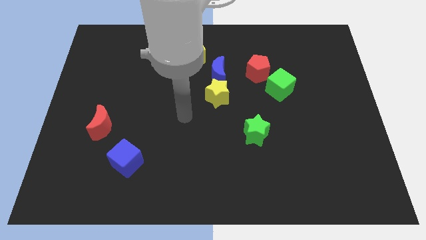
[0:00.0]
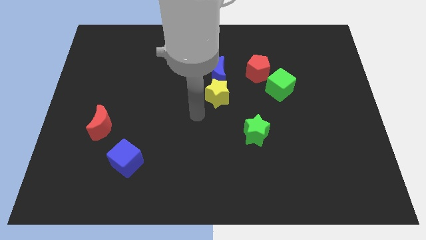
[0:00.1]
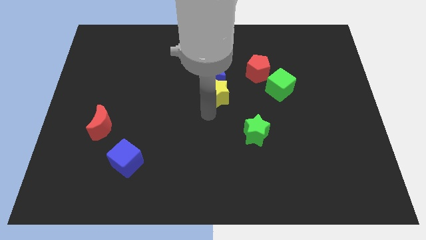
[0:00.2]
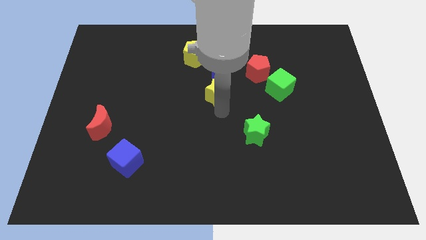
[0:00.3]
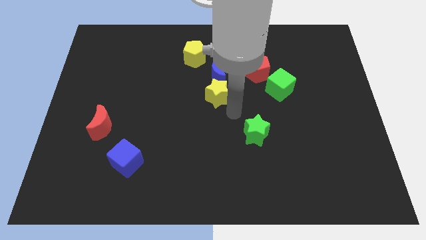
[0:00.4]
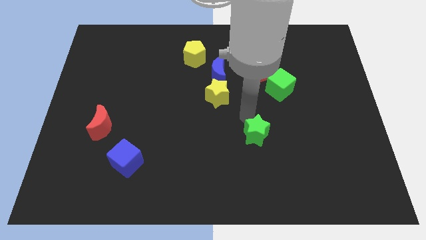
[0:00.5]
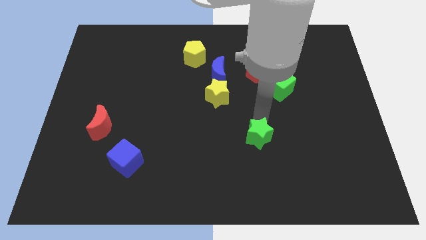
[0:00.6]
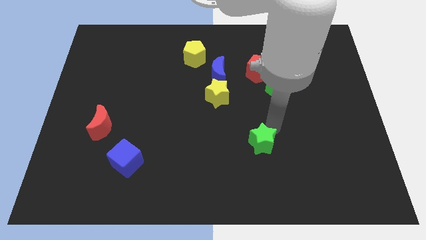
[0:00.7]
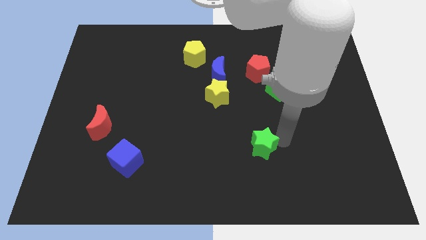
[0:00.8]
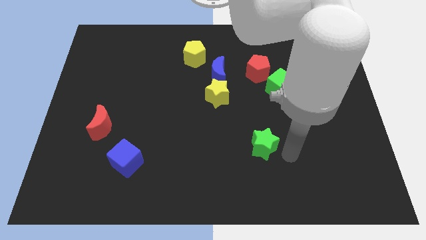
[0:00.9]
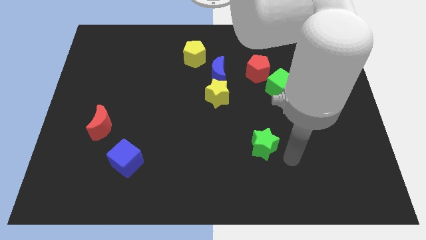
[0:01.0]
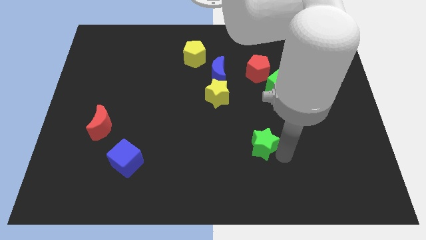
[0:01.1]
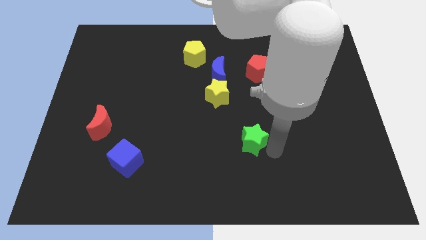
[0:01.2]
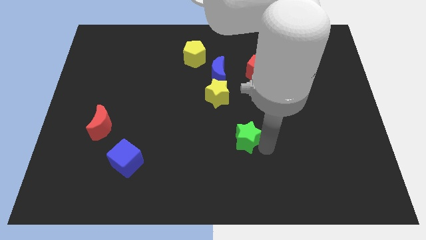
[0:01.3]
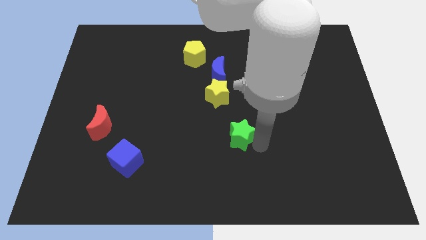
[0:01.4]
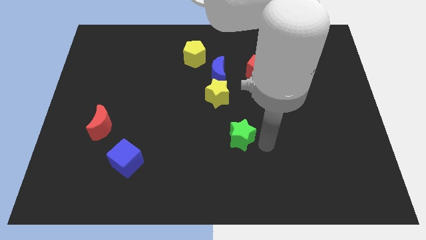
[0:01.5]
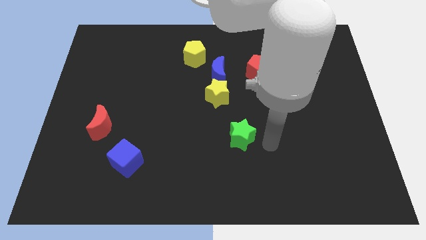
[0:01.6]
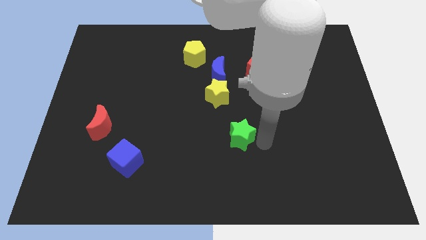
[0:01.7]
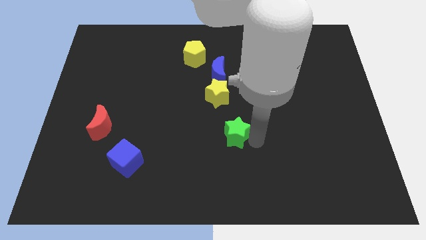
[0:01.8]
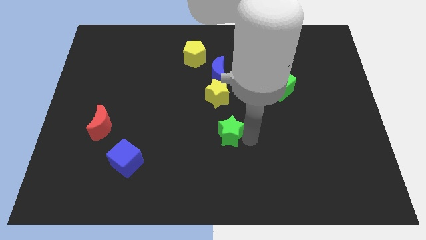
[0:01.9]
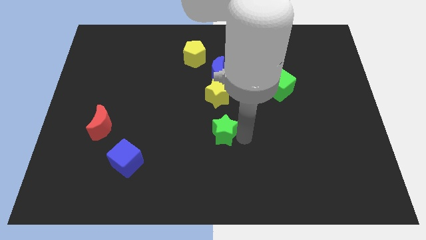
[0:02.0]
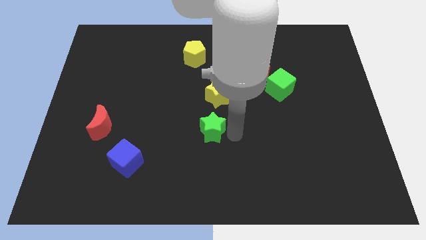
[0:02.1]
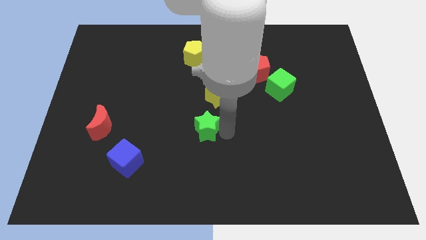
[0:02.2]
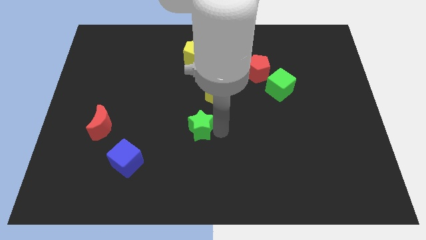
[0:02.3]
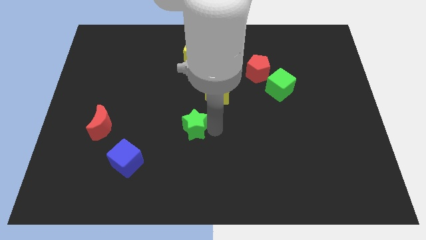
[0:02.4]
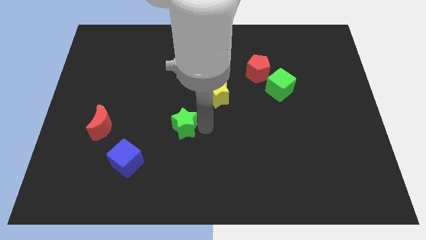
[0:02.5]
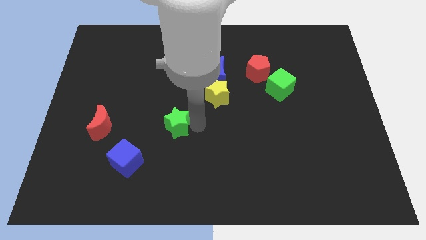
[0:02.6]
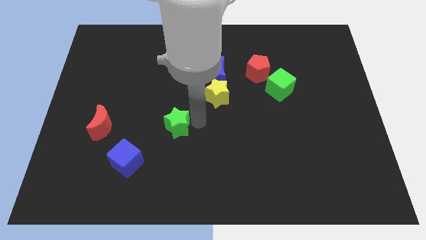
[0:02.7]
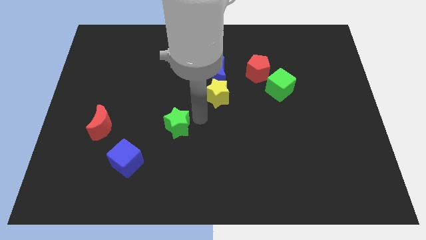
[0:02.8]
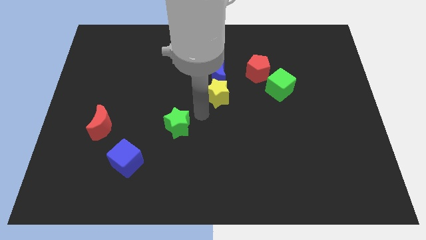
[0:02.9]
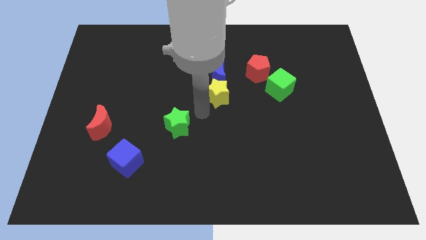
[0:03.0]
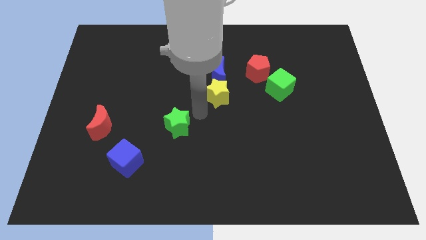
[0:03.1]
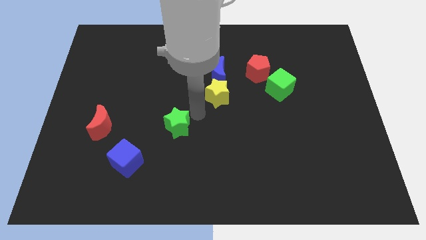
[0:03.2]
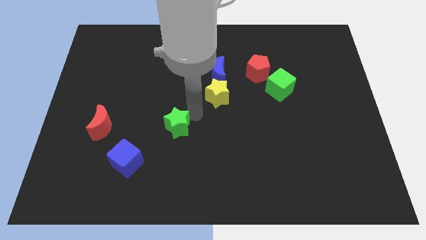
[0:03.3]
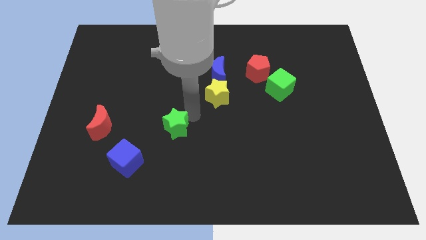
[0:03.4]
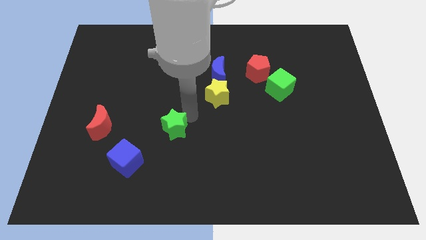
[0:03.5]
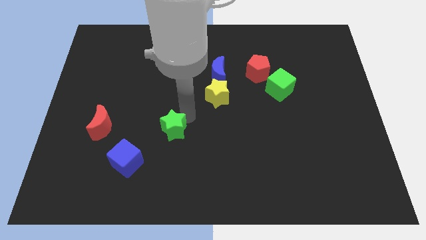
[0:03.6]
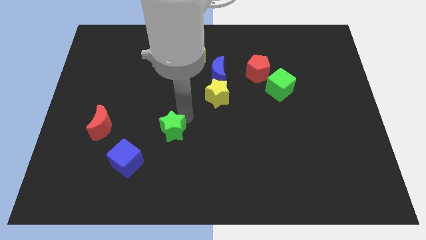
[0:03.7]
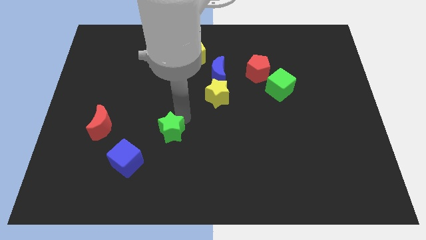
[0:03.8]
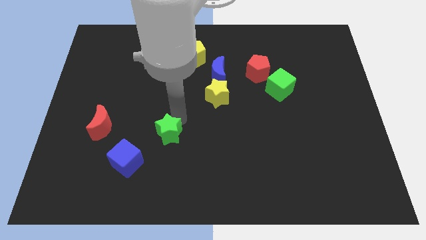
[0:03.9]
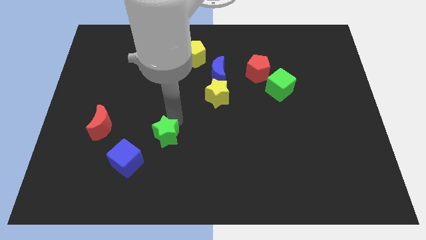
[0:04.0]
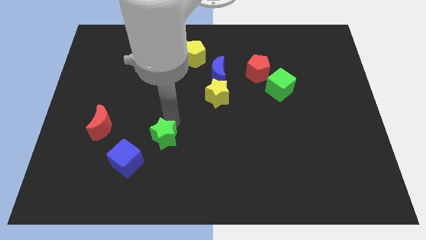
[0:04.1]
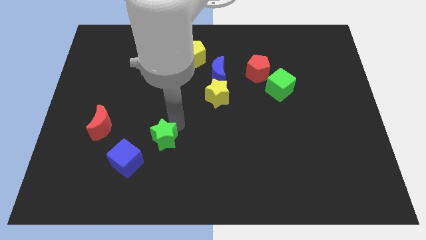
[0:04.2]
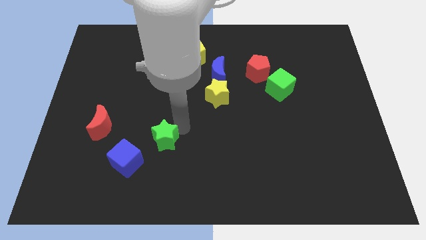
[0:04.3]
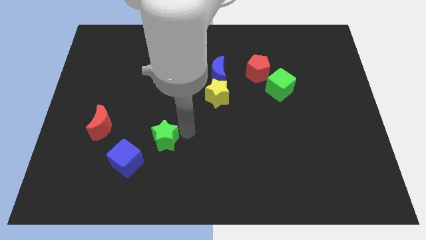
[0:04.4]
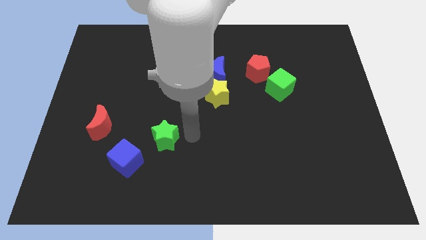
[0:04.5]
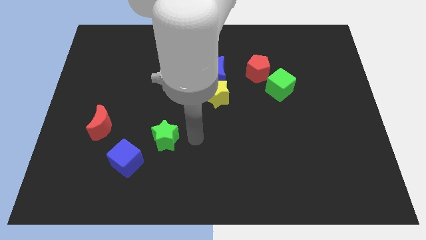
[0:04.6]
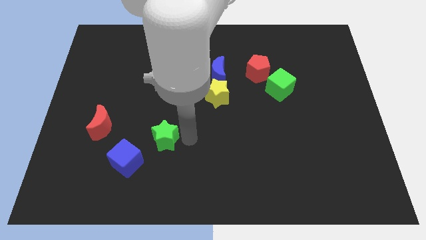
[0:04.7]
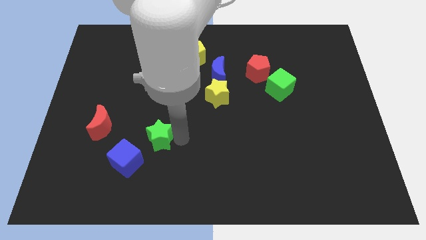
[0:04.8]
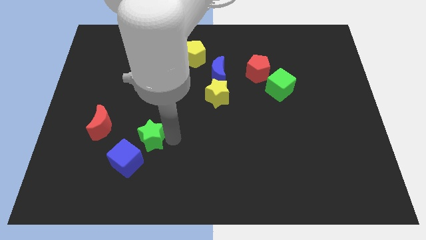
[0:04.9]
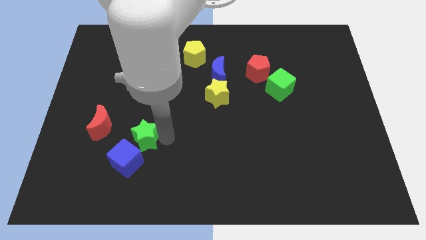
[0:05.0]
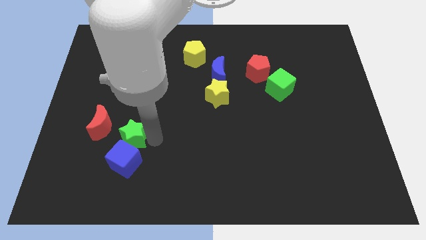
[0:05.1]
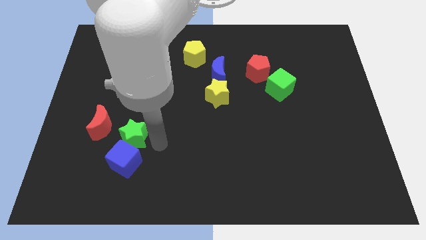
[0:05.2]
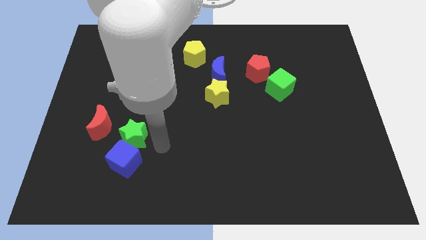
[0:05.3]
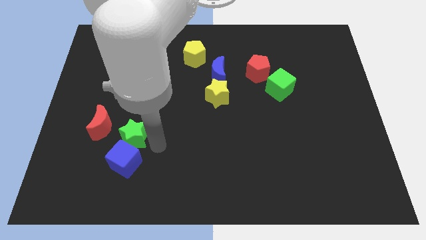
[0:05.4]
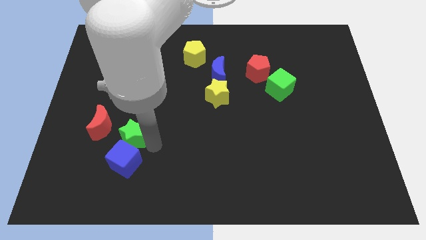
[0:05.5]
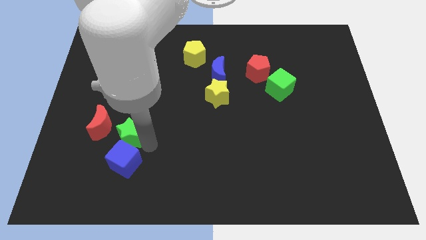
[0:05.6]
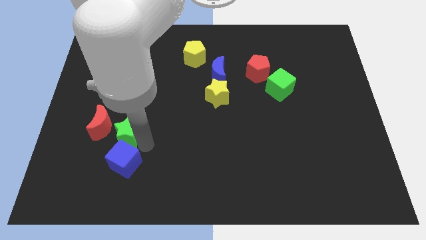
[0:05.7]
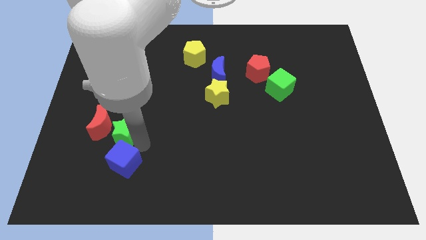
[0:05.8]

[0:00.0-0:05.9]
move the green star towards the red moon

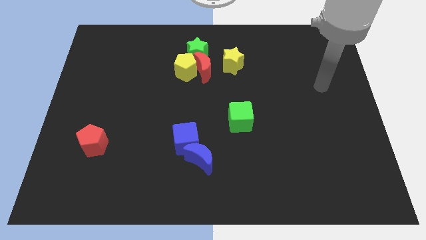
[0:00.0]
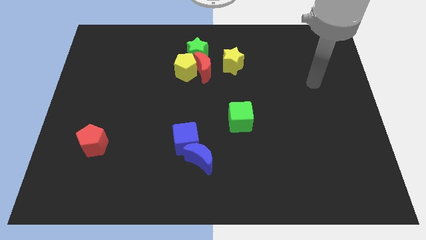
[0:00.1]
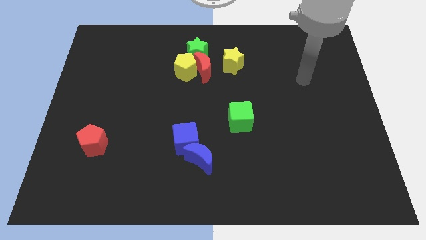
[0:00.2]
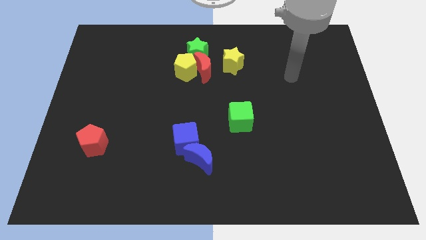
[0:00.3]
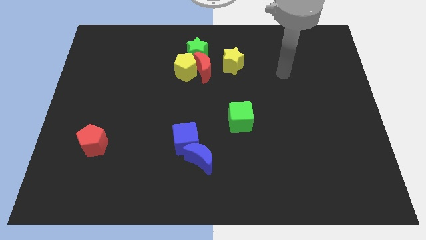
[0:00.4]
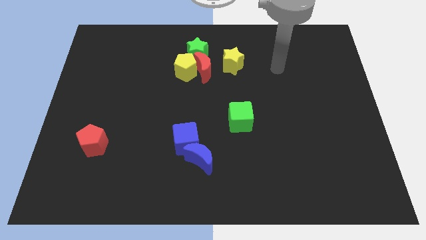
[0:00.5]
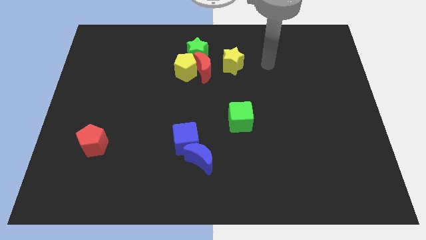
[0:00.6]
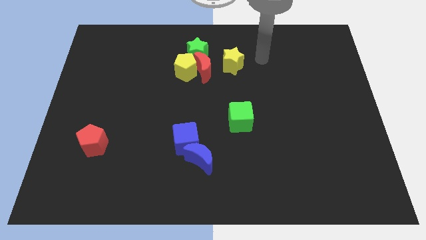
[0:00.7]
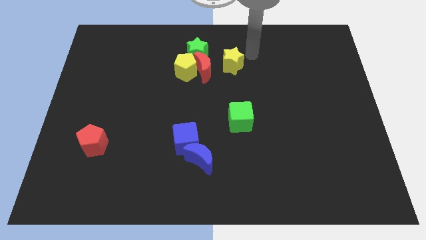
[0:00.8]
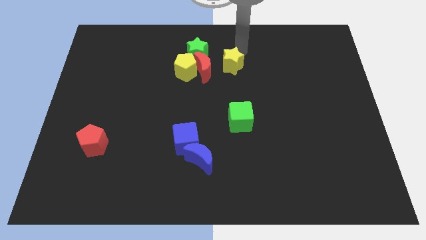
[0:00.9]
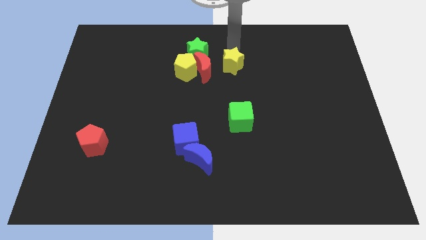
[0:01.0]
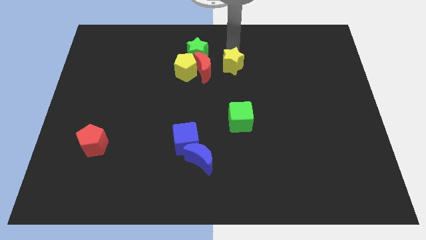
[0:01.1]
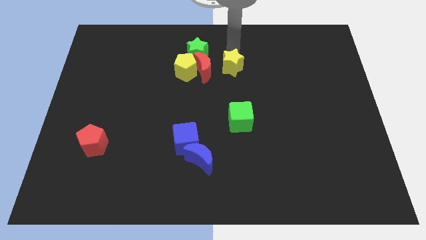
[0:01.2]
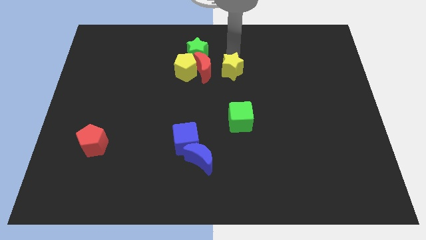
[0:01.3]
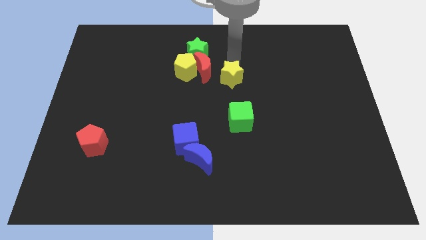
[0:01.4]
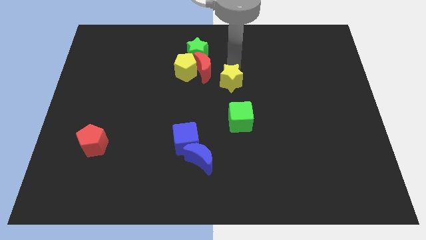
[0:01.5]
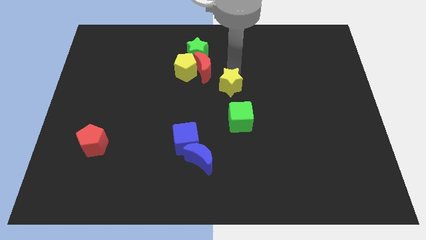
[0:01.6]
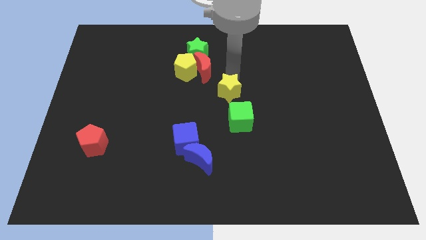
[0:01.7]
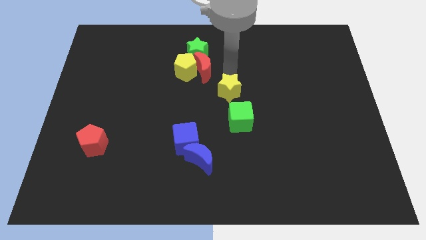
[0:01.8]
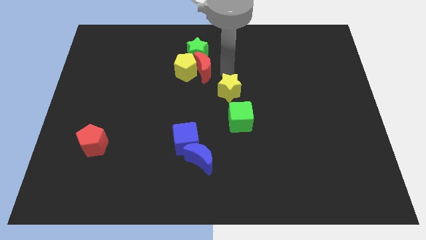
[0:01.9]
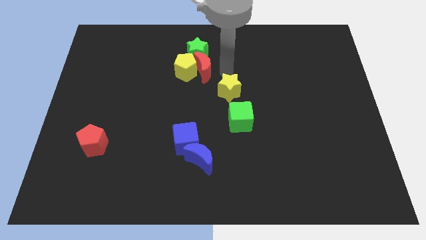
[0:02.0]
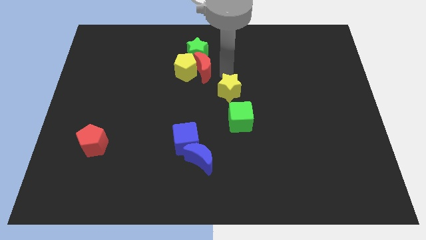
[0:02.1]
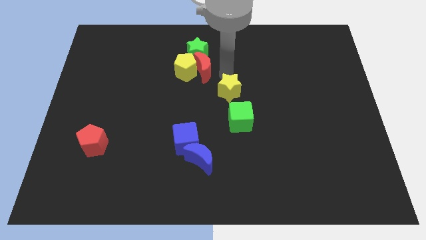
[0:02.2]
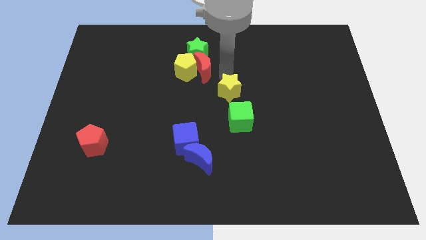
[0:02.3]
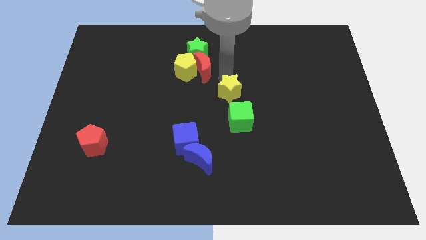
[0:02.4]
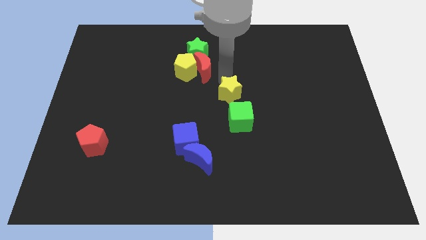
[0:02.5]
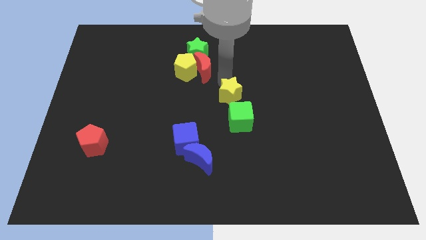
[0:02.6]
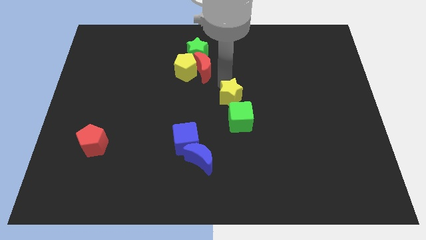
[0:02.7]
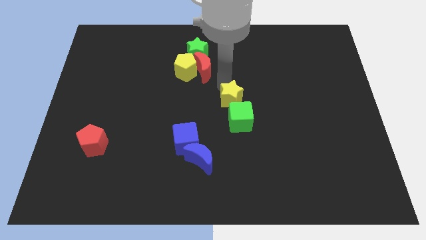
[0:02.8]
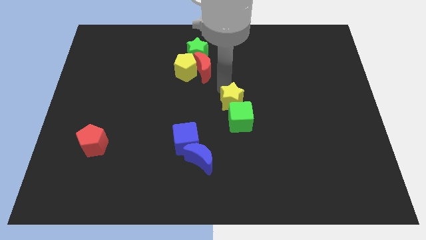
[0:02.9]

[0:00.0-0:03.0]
push the yellow star close to the green cube
